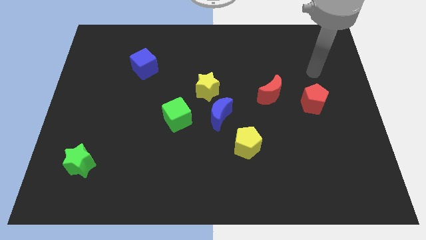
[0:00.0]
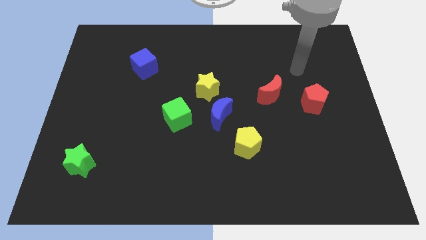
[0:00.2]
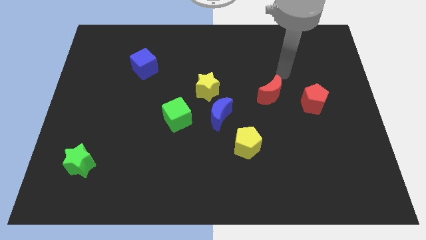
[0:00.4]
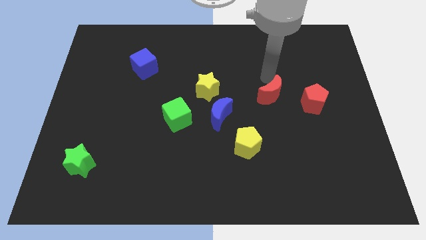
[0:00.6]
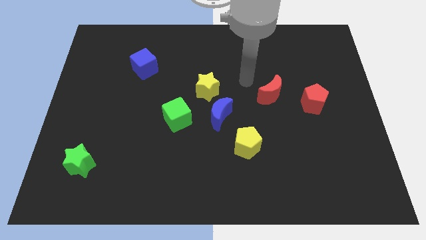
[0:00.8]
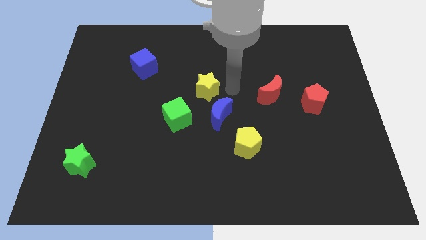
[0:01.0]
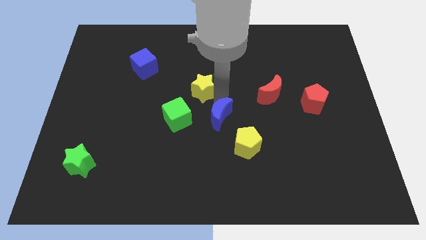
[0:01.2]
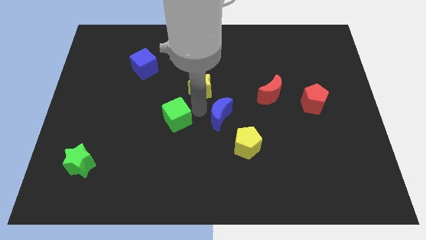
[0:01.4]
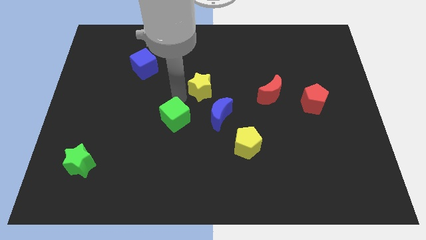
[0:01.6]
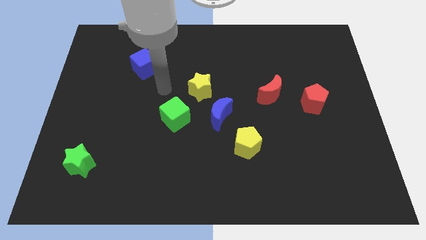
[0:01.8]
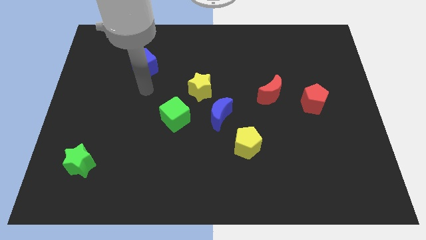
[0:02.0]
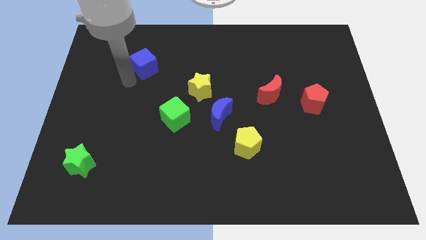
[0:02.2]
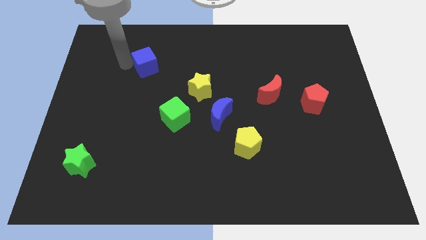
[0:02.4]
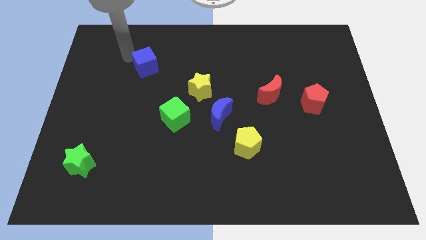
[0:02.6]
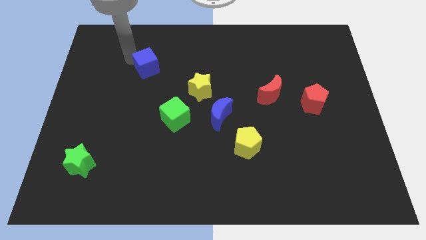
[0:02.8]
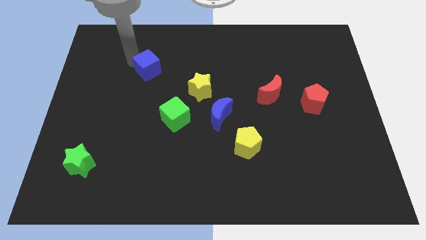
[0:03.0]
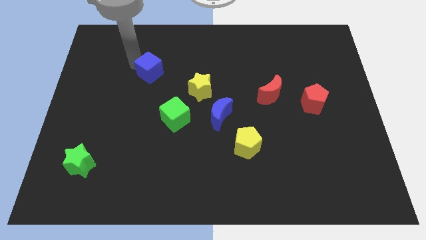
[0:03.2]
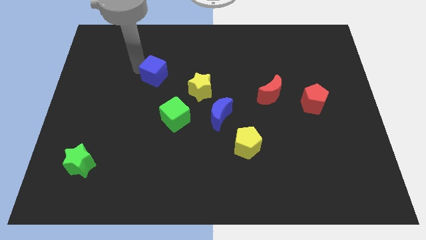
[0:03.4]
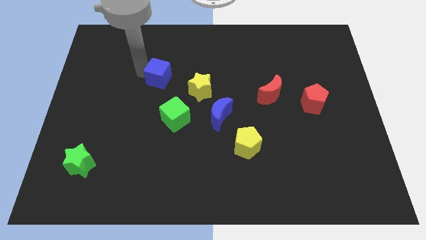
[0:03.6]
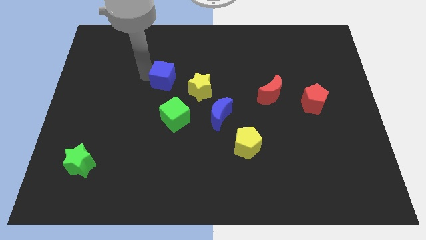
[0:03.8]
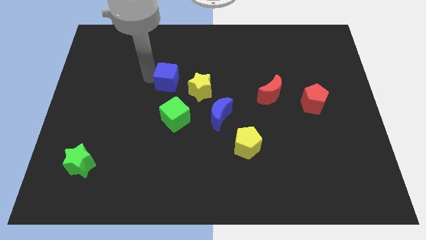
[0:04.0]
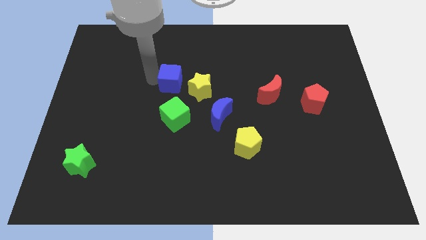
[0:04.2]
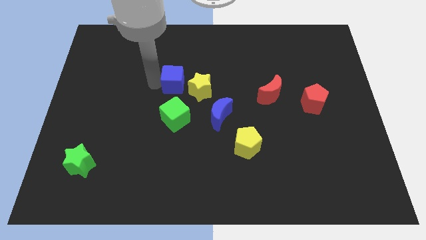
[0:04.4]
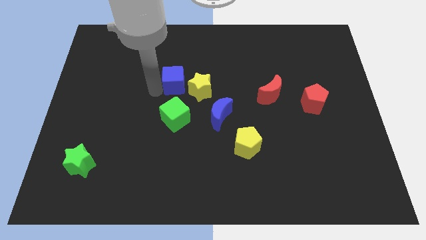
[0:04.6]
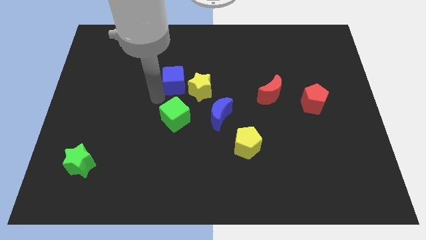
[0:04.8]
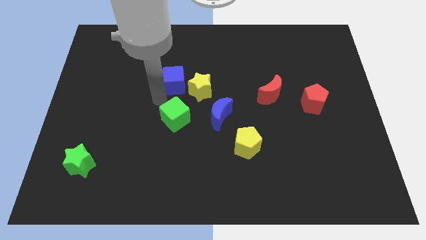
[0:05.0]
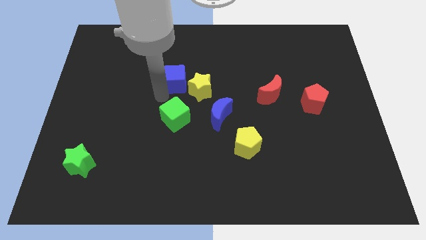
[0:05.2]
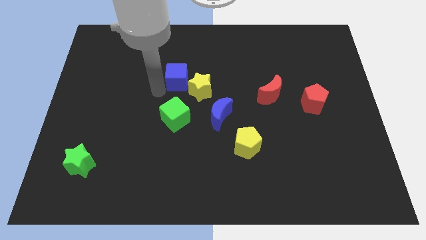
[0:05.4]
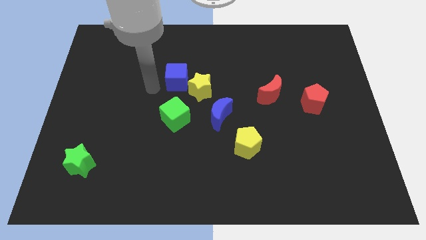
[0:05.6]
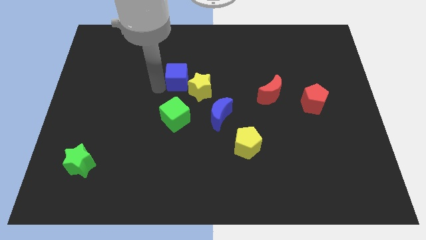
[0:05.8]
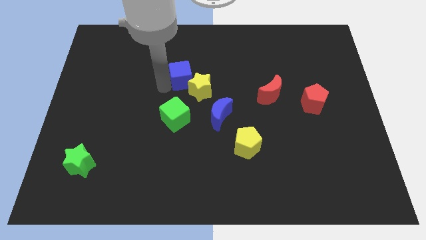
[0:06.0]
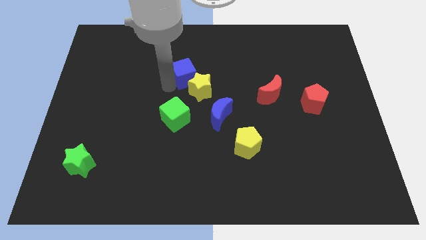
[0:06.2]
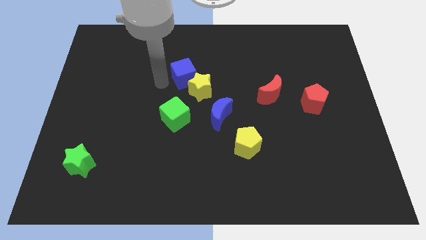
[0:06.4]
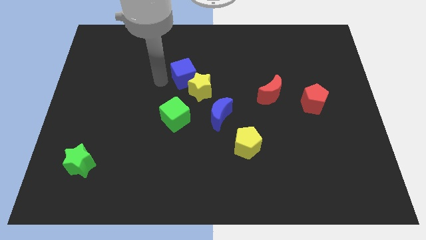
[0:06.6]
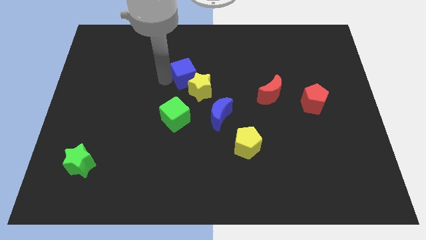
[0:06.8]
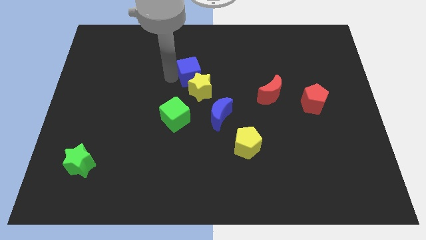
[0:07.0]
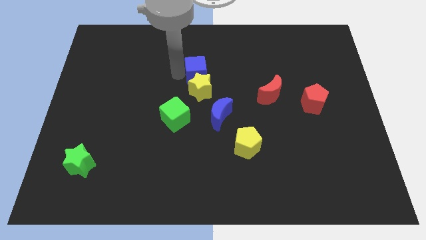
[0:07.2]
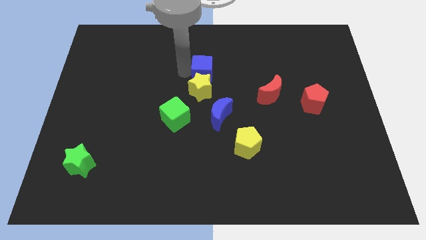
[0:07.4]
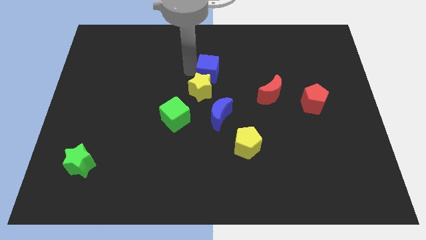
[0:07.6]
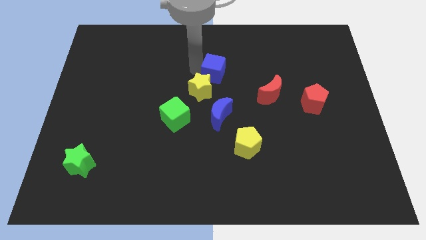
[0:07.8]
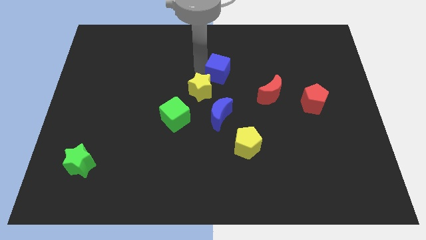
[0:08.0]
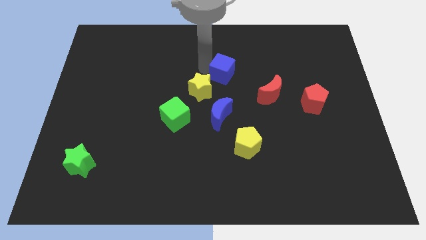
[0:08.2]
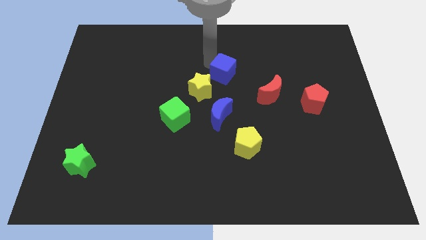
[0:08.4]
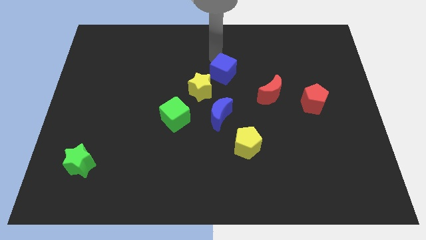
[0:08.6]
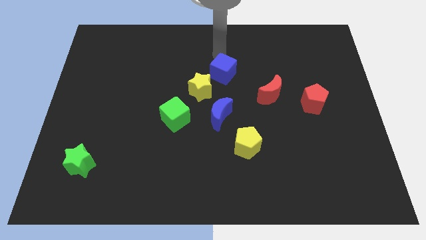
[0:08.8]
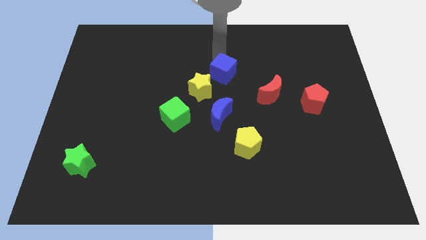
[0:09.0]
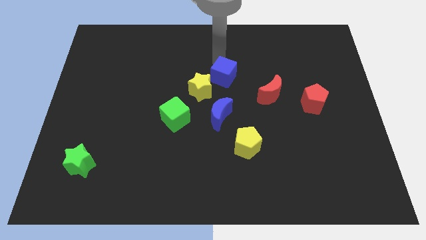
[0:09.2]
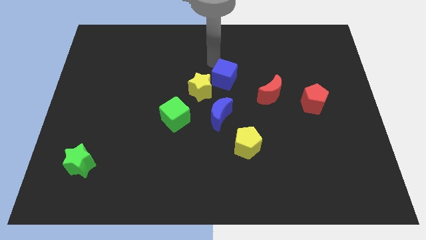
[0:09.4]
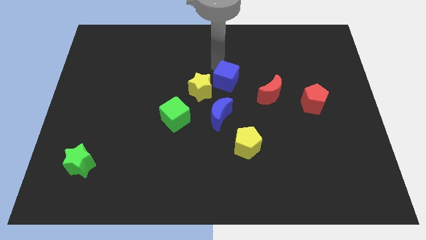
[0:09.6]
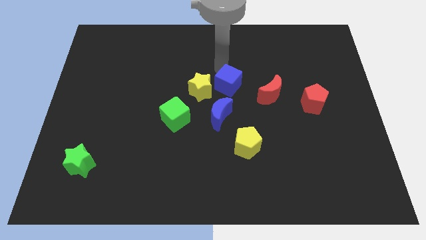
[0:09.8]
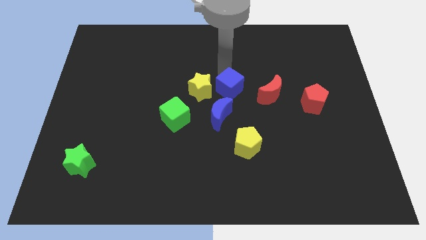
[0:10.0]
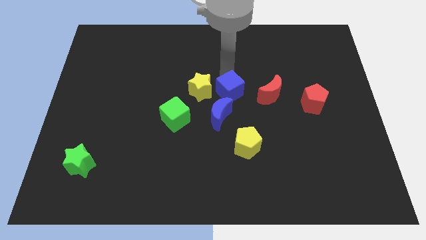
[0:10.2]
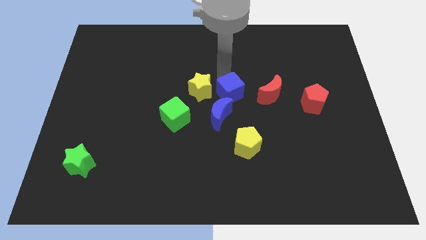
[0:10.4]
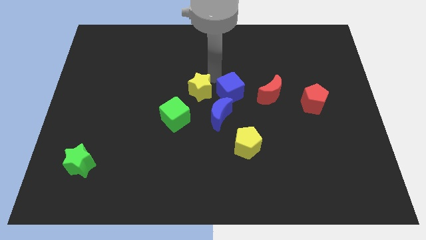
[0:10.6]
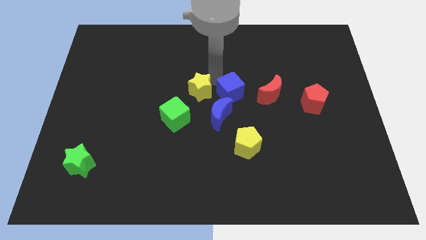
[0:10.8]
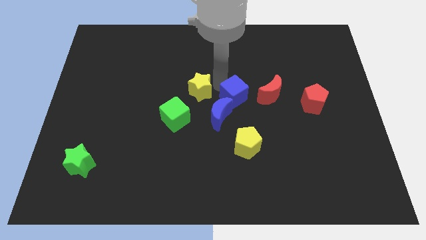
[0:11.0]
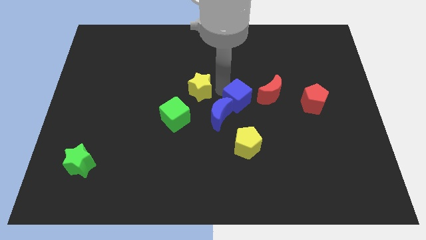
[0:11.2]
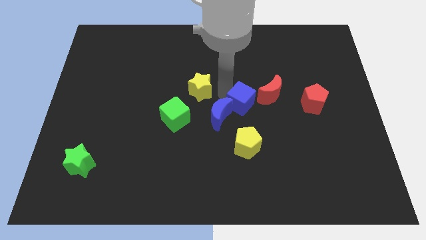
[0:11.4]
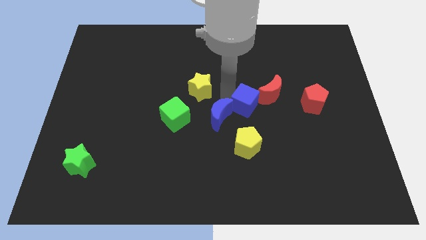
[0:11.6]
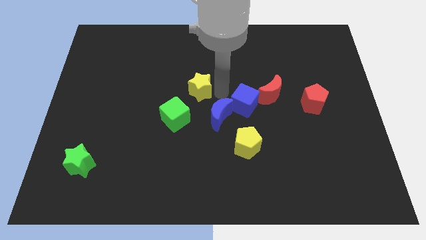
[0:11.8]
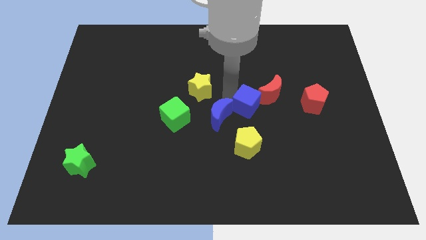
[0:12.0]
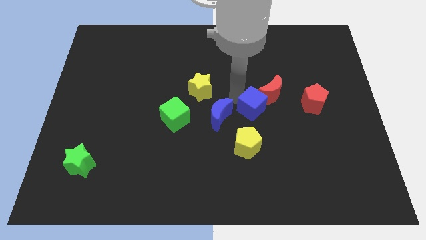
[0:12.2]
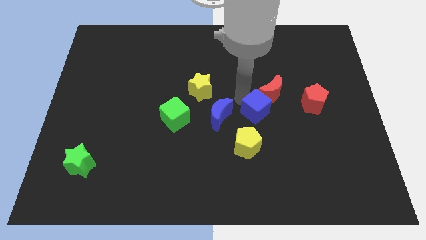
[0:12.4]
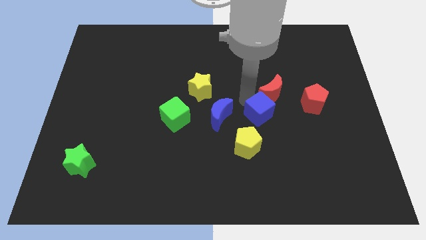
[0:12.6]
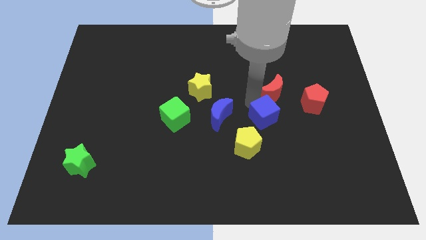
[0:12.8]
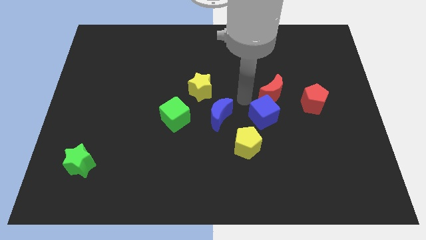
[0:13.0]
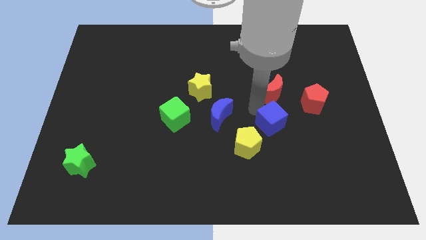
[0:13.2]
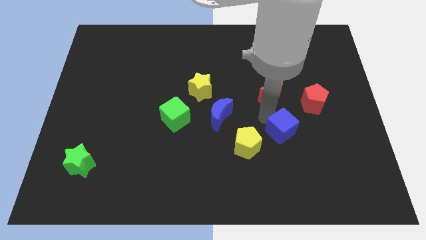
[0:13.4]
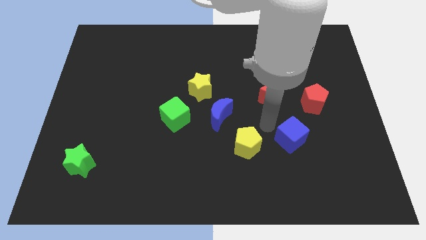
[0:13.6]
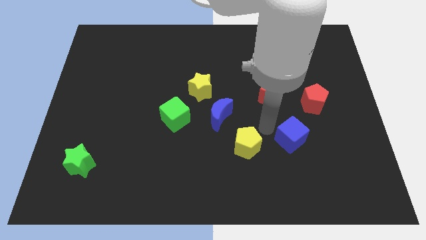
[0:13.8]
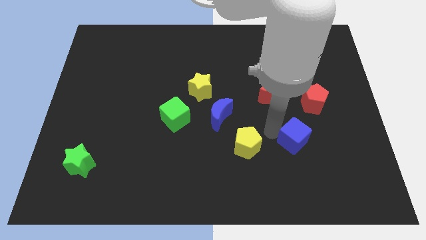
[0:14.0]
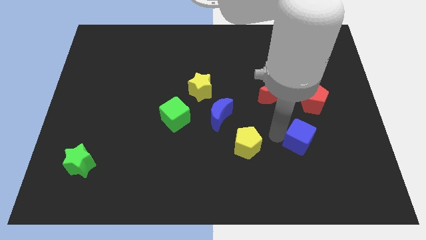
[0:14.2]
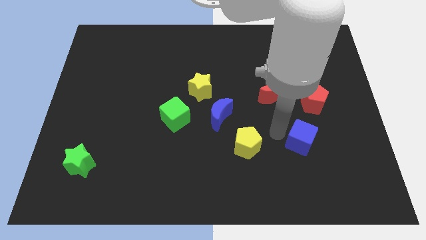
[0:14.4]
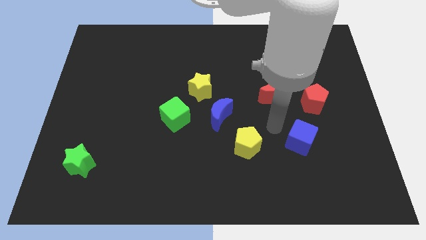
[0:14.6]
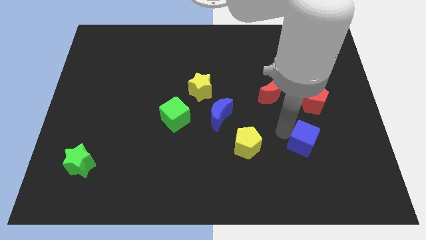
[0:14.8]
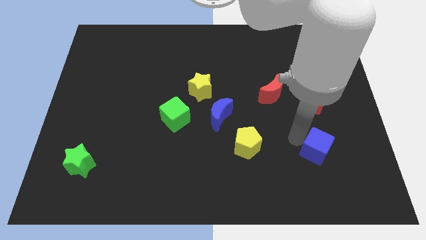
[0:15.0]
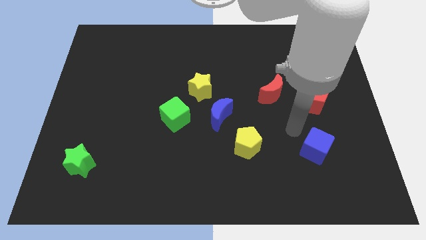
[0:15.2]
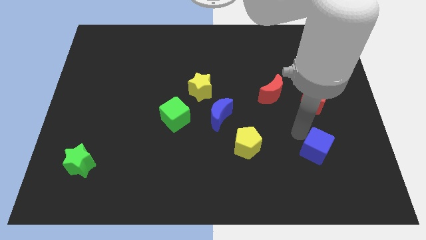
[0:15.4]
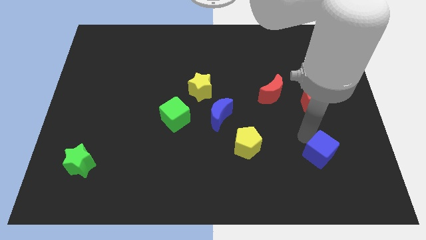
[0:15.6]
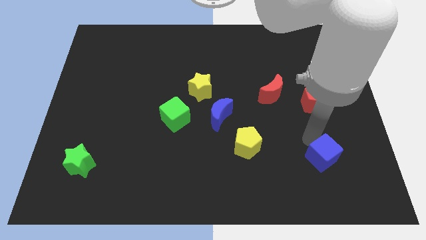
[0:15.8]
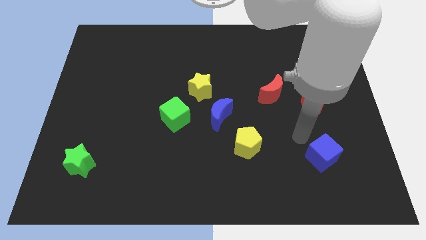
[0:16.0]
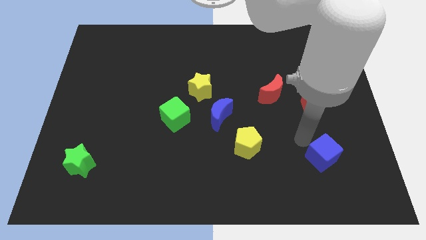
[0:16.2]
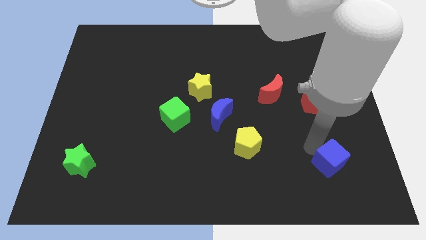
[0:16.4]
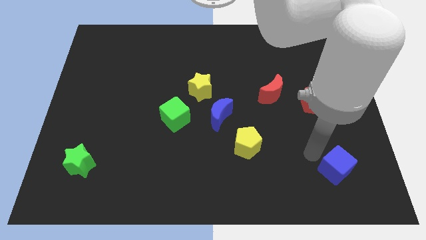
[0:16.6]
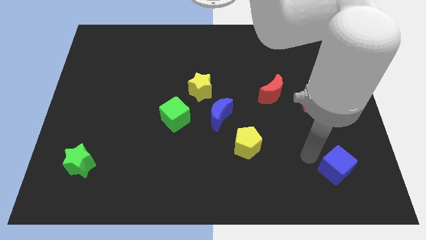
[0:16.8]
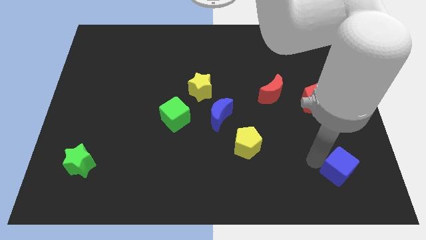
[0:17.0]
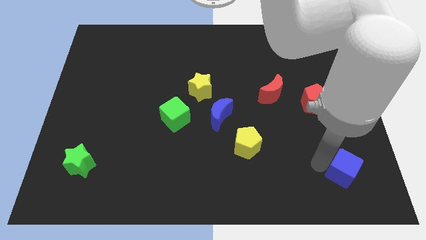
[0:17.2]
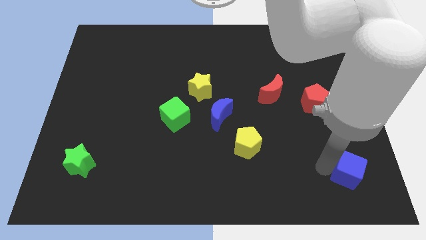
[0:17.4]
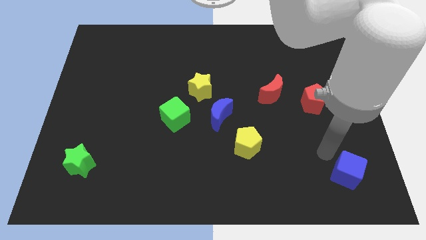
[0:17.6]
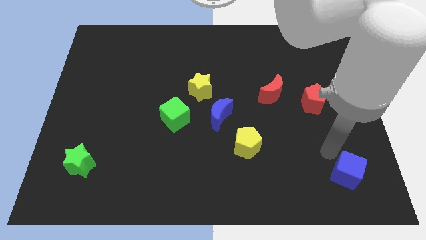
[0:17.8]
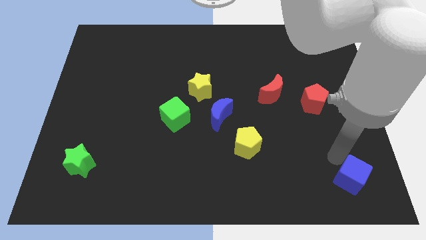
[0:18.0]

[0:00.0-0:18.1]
put the blue cube to the bottom right
